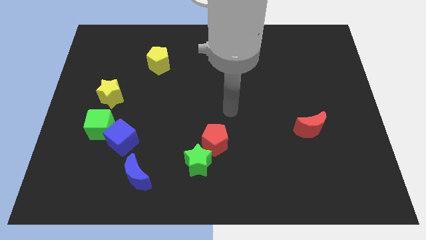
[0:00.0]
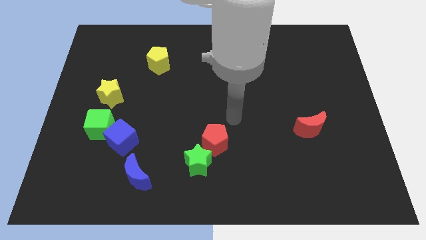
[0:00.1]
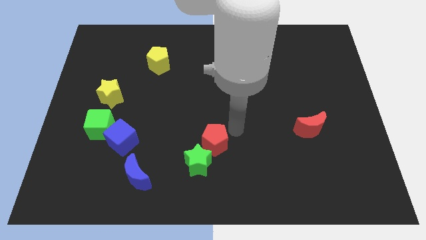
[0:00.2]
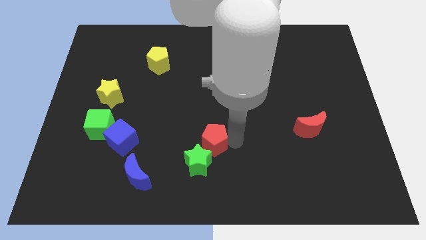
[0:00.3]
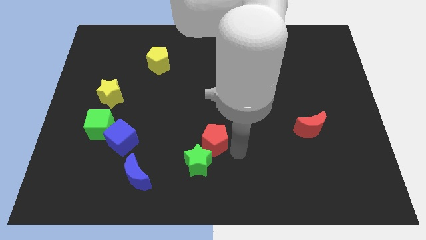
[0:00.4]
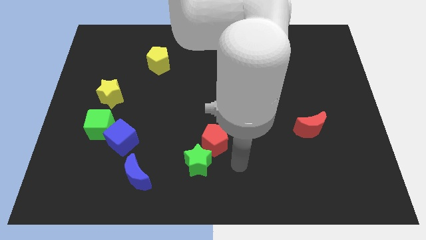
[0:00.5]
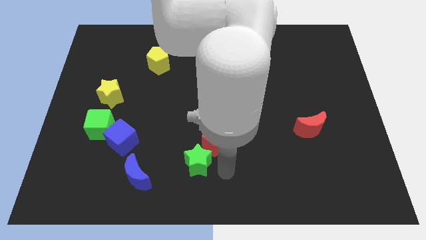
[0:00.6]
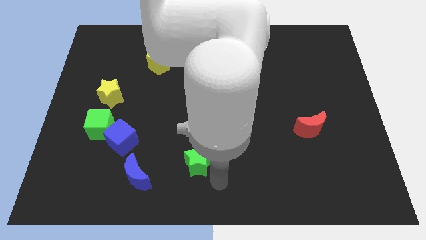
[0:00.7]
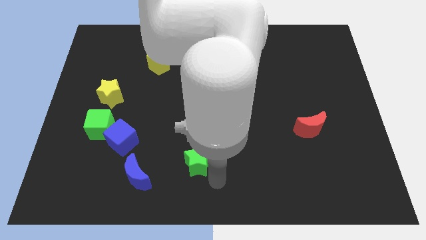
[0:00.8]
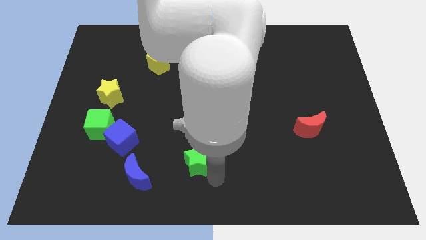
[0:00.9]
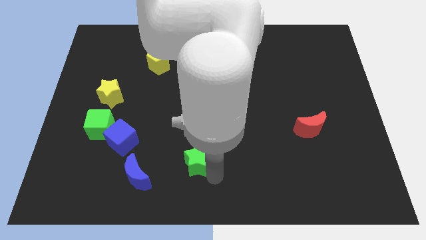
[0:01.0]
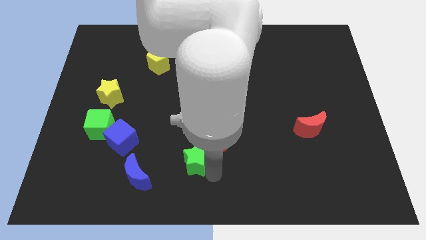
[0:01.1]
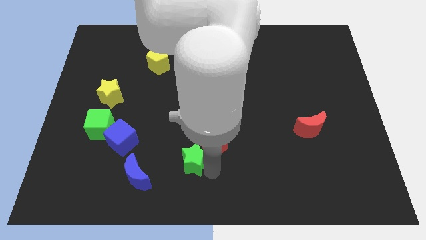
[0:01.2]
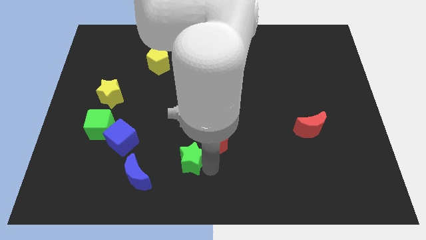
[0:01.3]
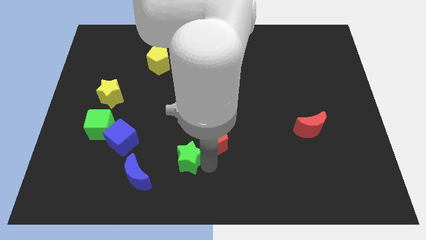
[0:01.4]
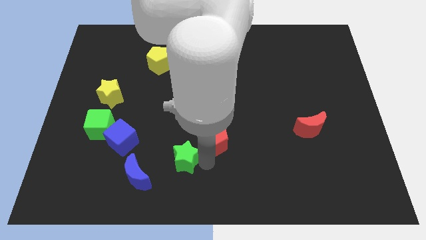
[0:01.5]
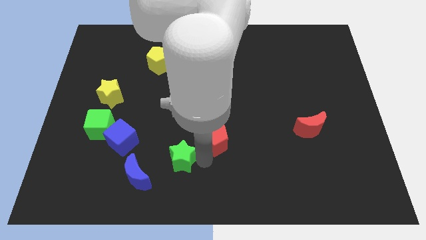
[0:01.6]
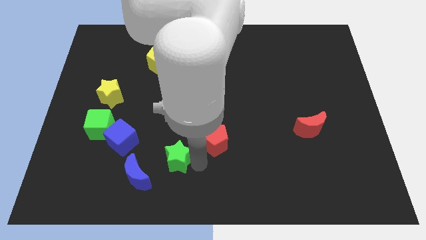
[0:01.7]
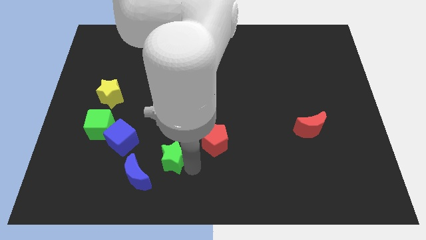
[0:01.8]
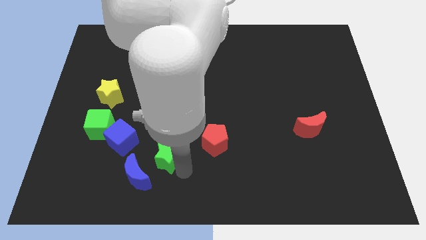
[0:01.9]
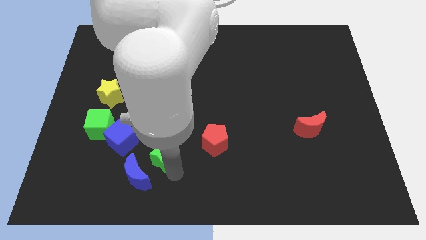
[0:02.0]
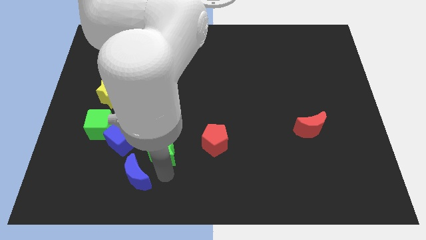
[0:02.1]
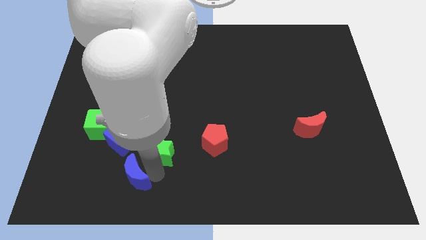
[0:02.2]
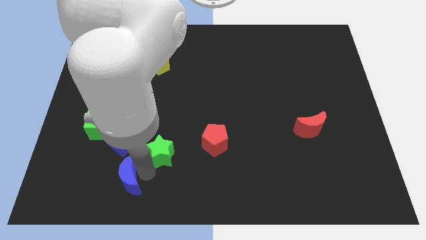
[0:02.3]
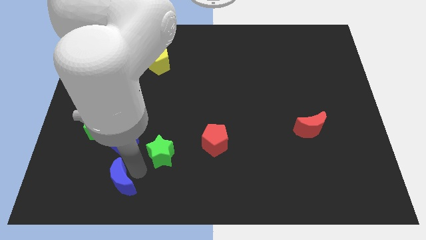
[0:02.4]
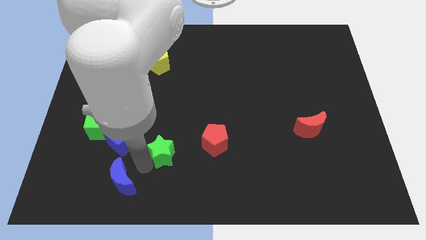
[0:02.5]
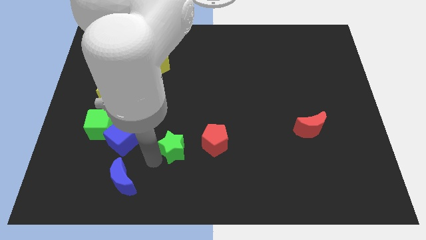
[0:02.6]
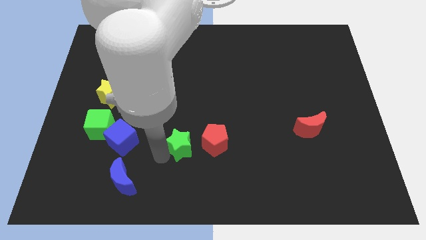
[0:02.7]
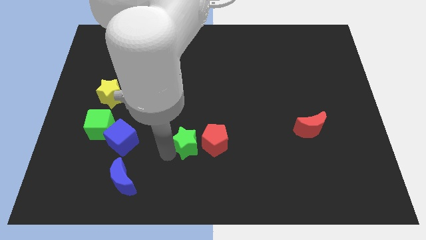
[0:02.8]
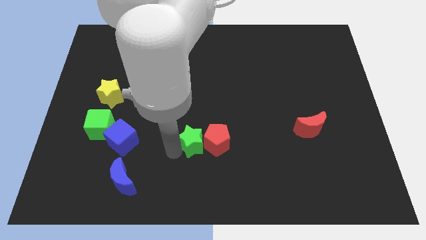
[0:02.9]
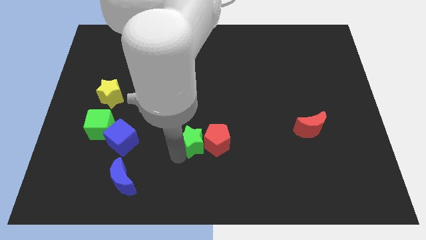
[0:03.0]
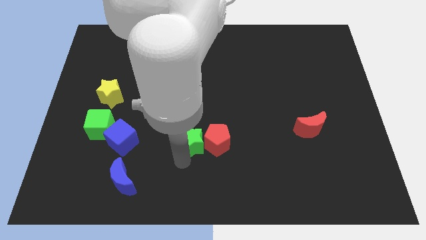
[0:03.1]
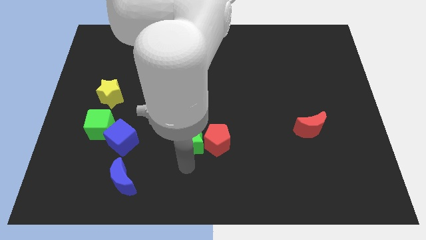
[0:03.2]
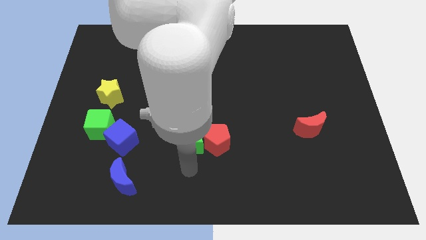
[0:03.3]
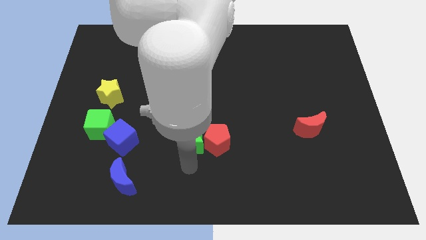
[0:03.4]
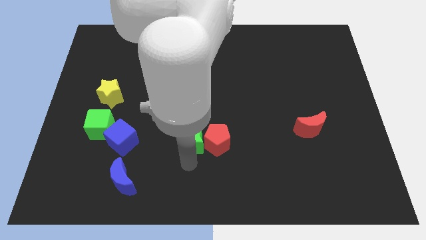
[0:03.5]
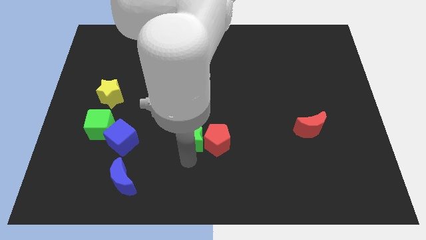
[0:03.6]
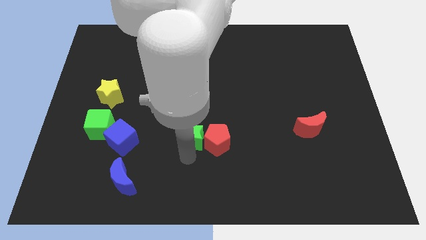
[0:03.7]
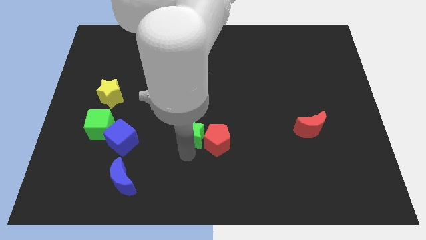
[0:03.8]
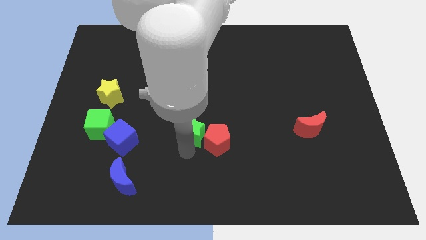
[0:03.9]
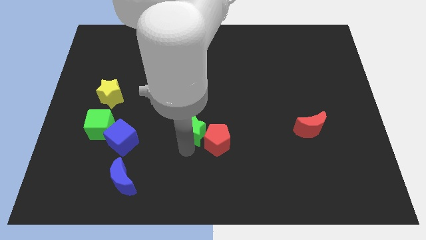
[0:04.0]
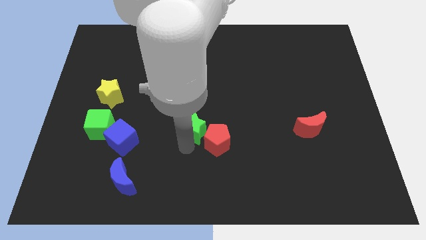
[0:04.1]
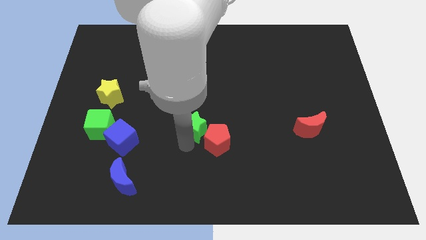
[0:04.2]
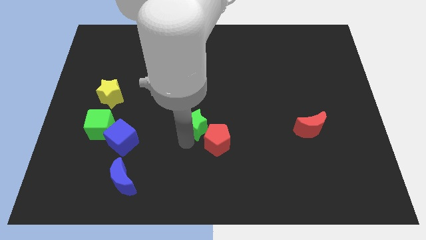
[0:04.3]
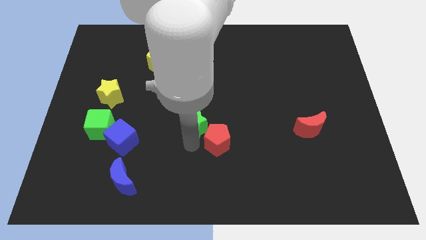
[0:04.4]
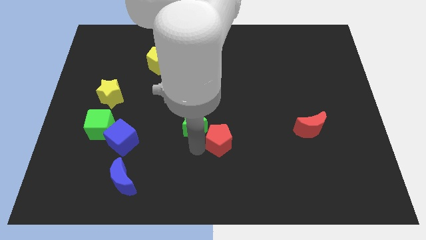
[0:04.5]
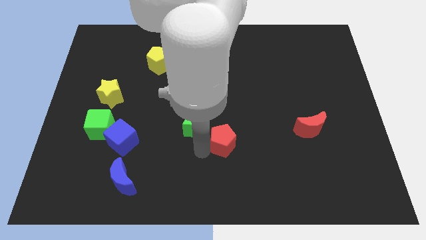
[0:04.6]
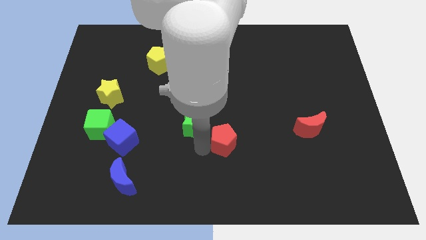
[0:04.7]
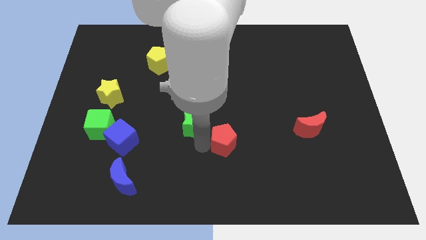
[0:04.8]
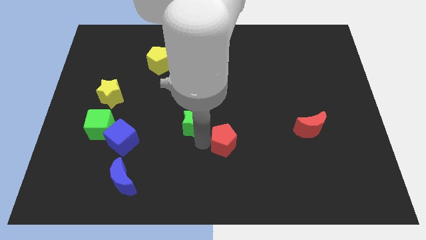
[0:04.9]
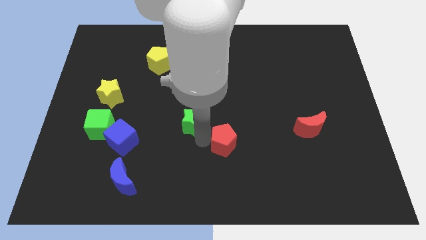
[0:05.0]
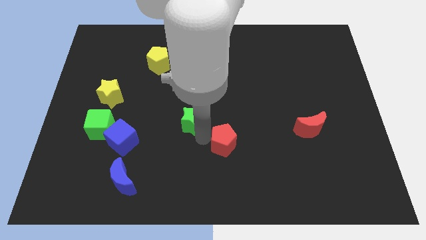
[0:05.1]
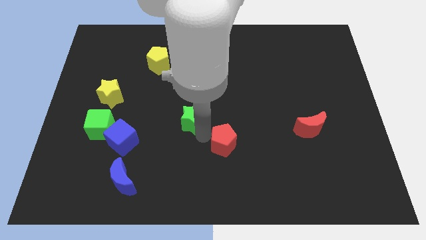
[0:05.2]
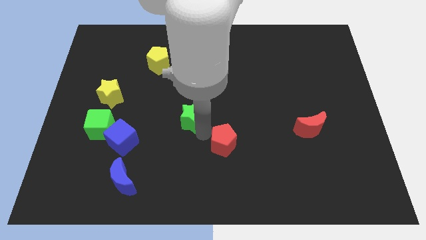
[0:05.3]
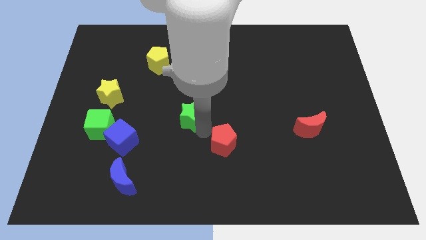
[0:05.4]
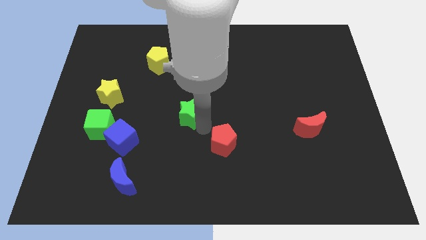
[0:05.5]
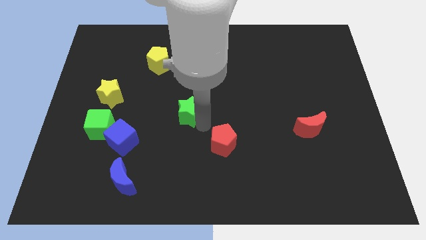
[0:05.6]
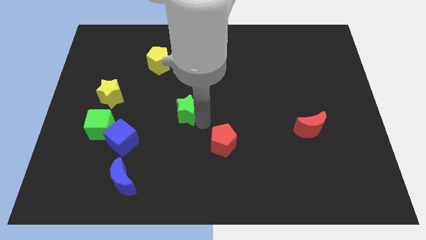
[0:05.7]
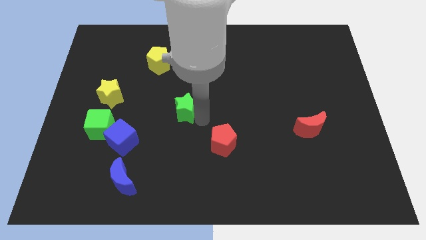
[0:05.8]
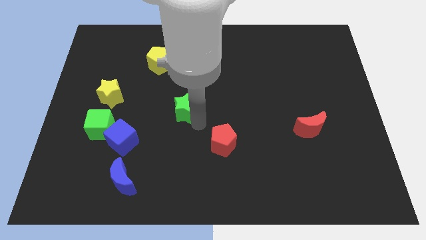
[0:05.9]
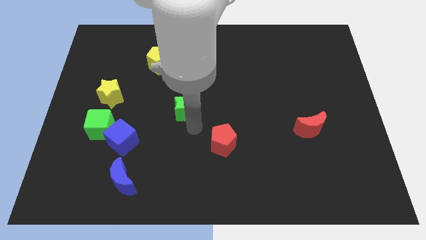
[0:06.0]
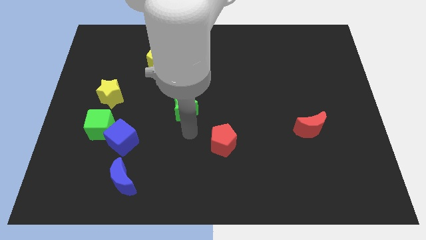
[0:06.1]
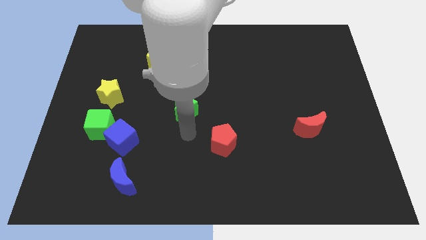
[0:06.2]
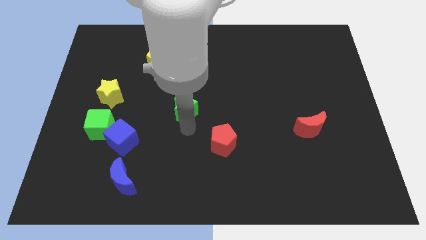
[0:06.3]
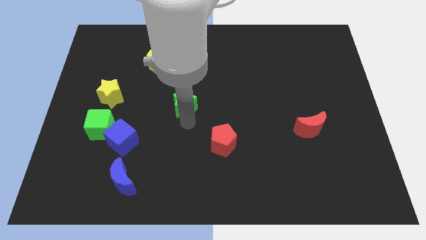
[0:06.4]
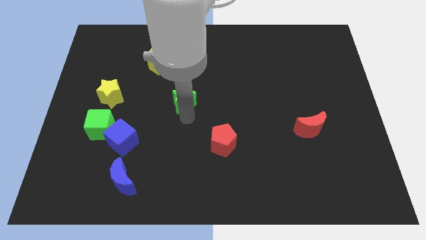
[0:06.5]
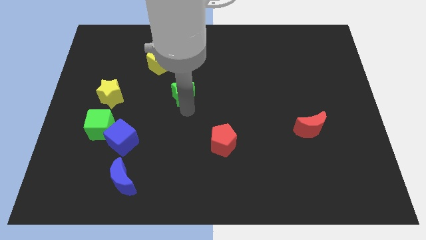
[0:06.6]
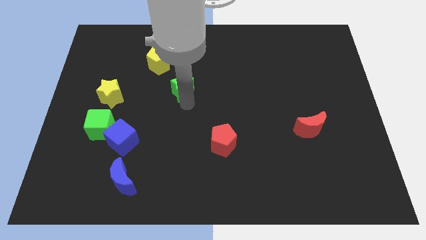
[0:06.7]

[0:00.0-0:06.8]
slide the green star to the bottom right of the yellow pentagon

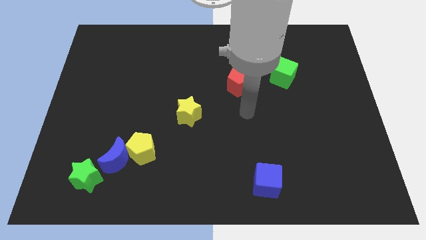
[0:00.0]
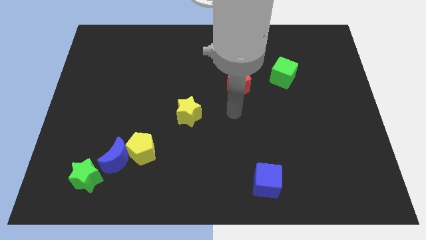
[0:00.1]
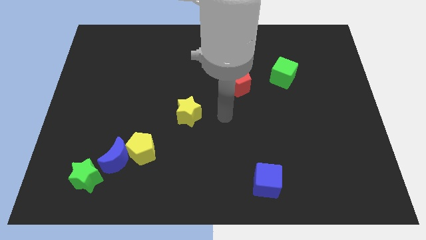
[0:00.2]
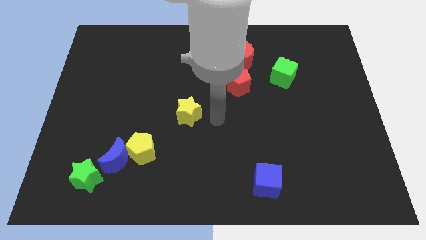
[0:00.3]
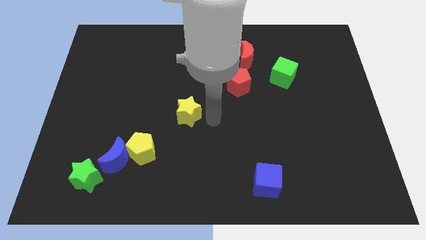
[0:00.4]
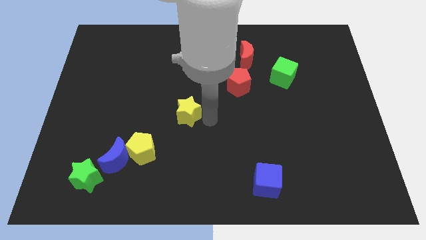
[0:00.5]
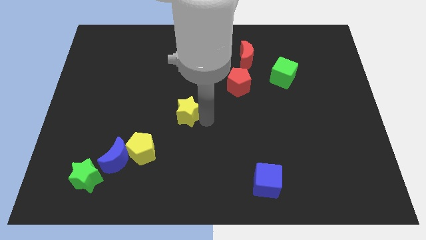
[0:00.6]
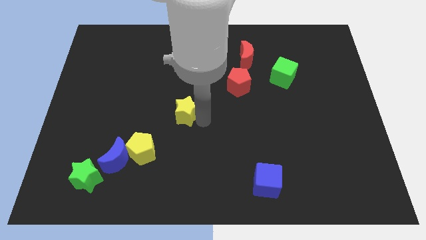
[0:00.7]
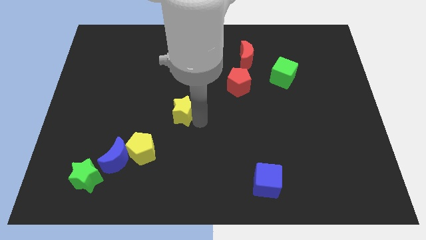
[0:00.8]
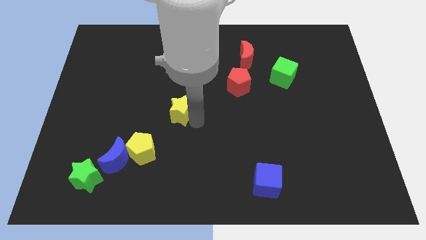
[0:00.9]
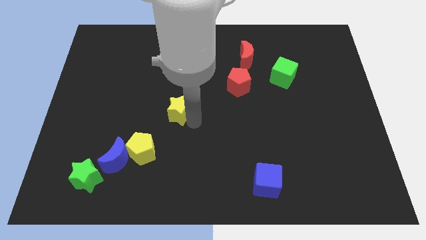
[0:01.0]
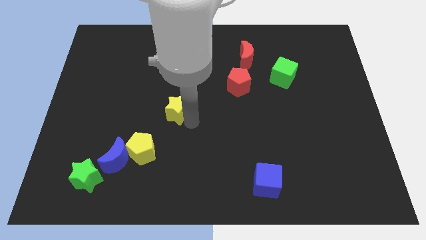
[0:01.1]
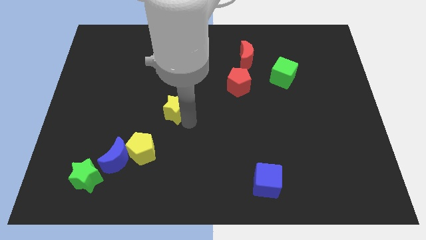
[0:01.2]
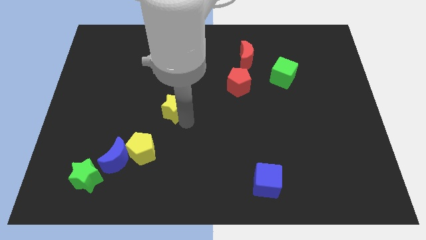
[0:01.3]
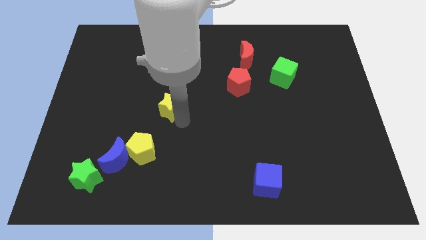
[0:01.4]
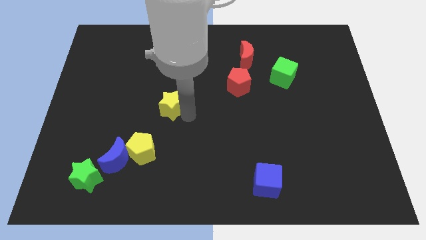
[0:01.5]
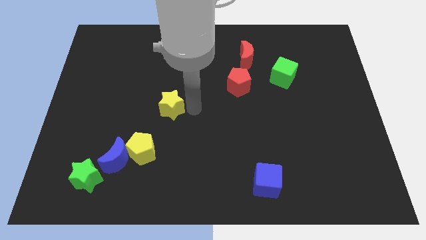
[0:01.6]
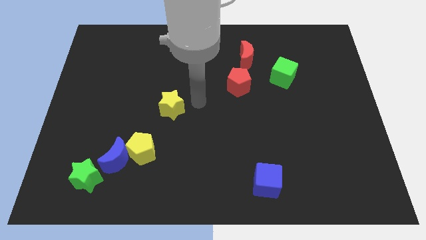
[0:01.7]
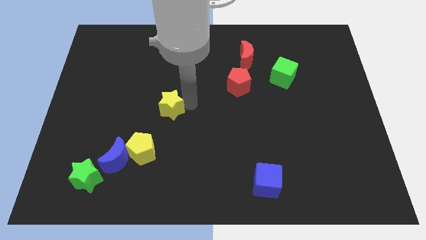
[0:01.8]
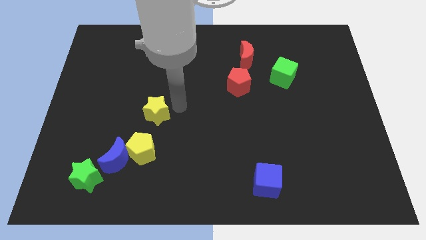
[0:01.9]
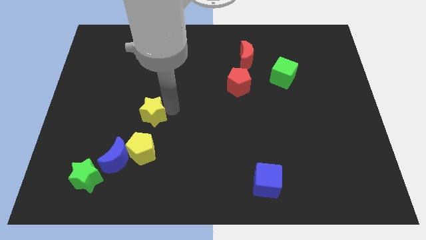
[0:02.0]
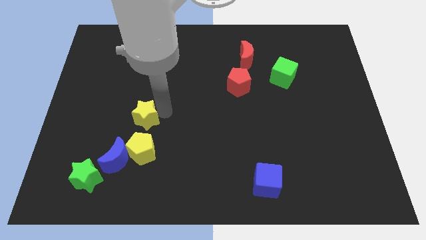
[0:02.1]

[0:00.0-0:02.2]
put the yellow star to the top of the blue moon
